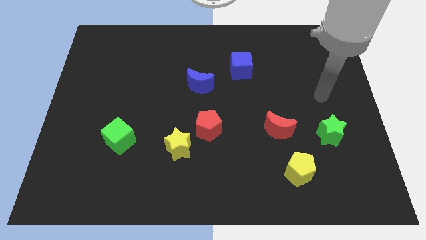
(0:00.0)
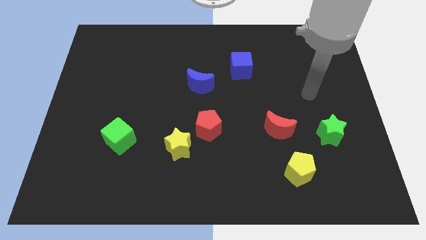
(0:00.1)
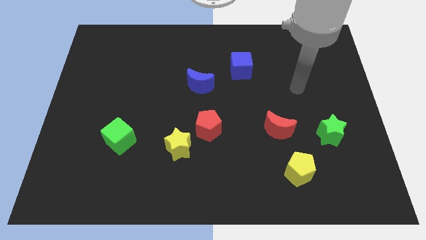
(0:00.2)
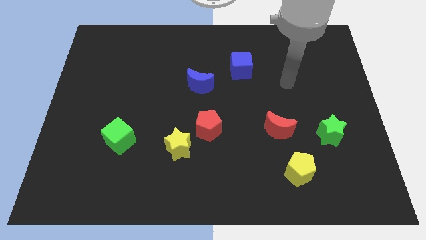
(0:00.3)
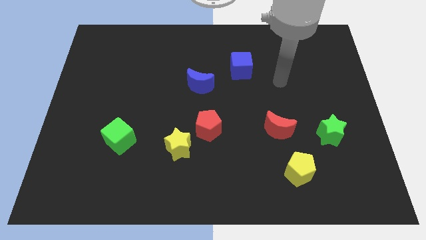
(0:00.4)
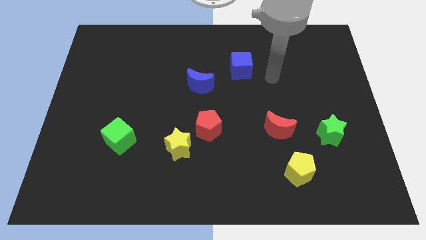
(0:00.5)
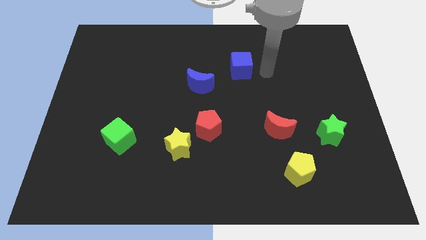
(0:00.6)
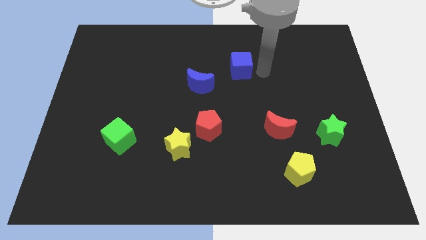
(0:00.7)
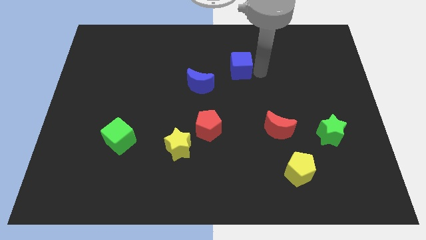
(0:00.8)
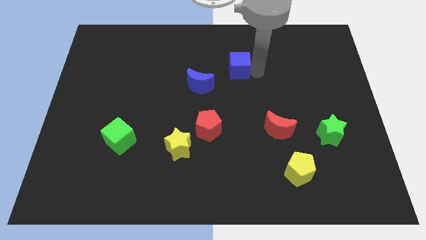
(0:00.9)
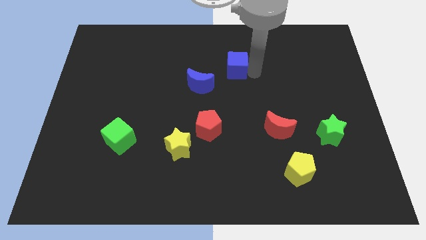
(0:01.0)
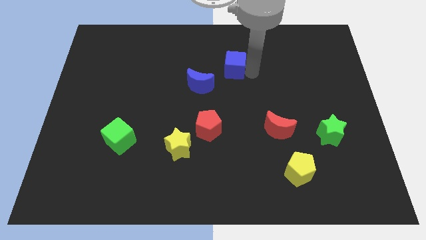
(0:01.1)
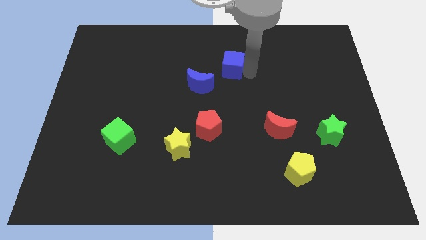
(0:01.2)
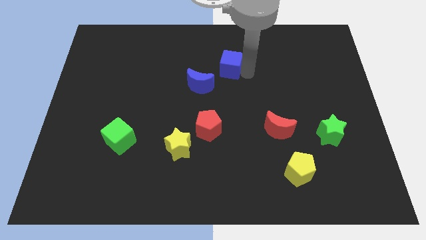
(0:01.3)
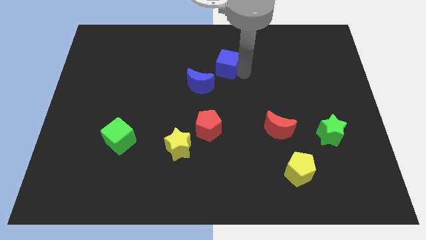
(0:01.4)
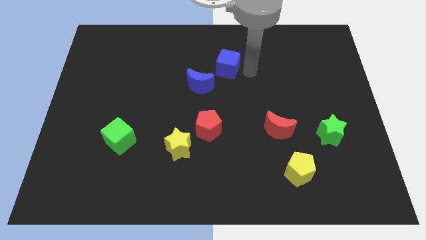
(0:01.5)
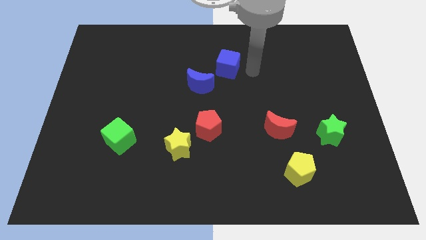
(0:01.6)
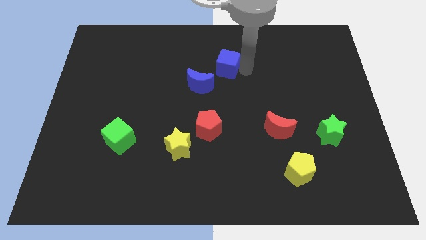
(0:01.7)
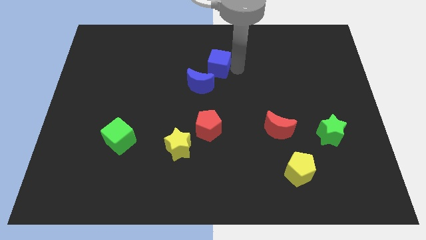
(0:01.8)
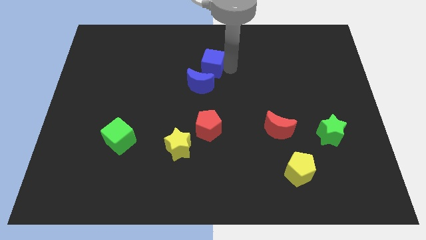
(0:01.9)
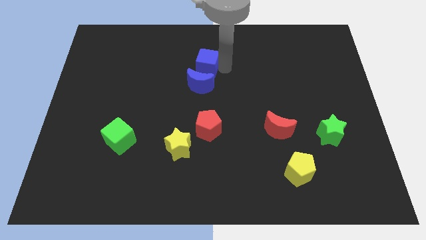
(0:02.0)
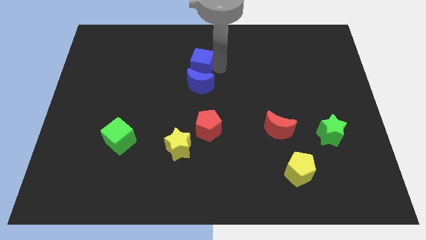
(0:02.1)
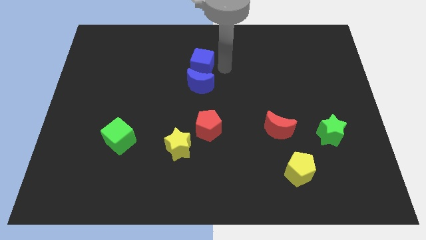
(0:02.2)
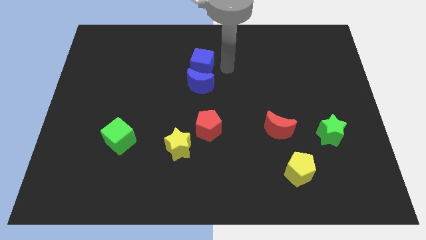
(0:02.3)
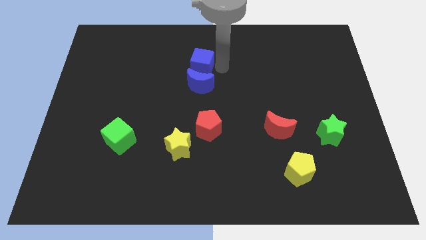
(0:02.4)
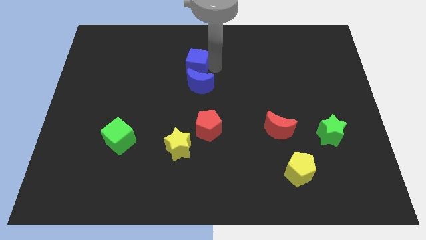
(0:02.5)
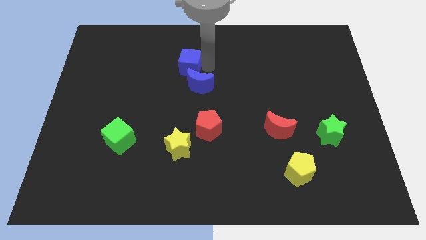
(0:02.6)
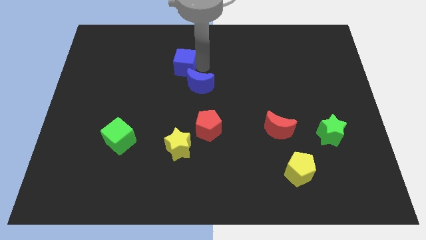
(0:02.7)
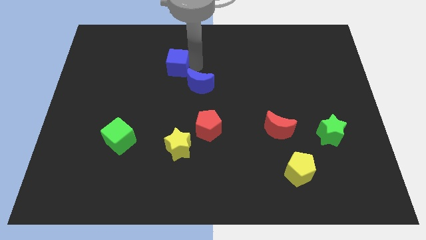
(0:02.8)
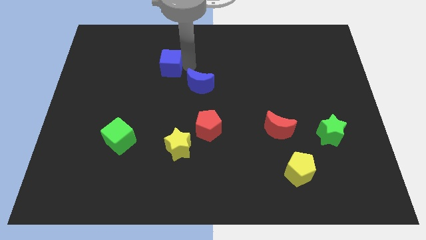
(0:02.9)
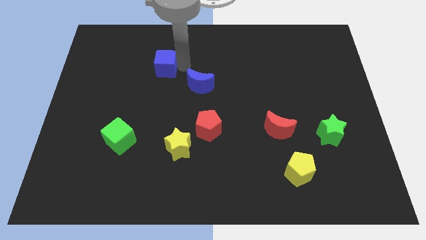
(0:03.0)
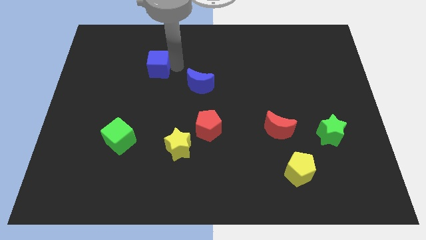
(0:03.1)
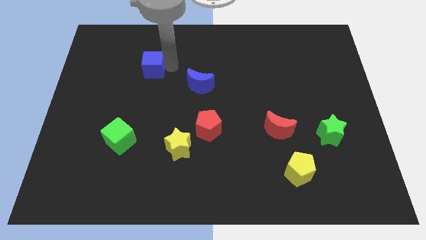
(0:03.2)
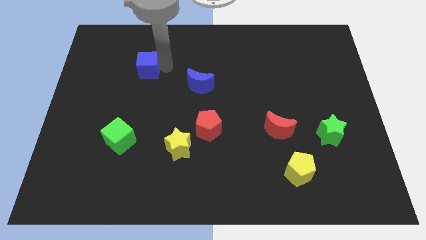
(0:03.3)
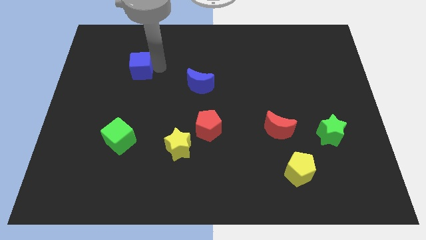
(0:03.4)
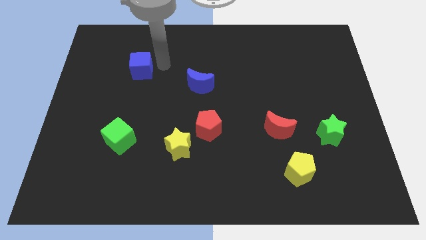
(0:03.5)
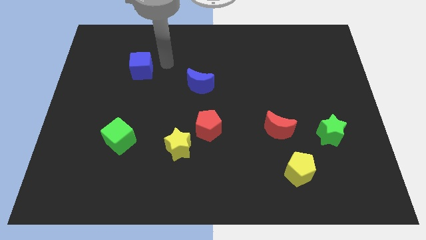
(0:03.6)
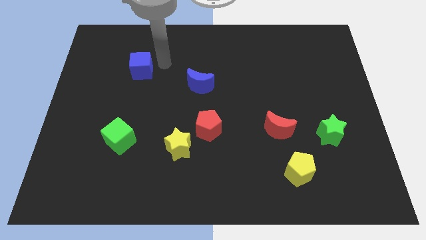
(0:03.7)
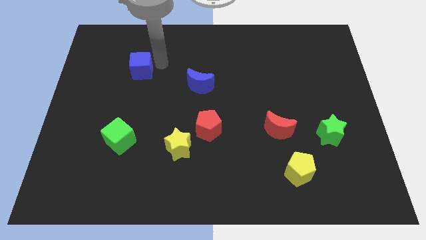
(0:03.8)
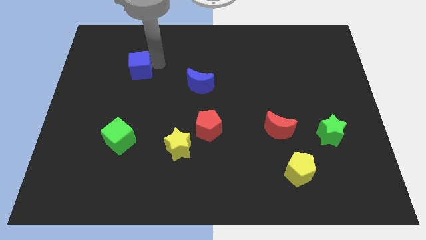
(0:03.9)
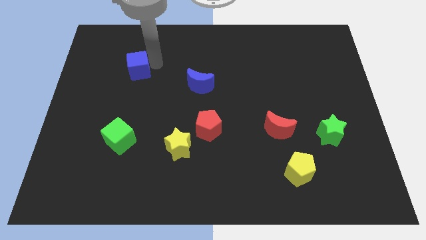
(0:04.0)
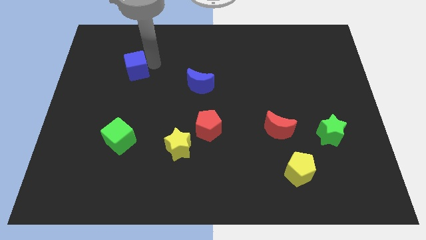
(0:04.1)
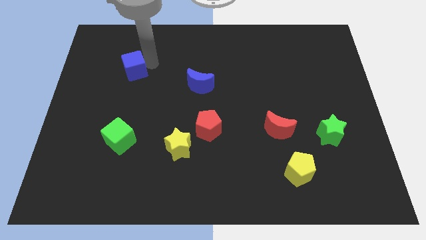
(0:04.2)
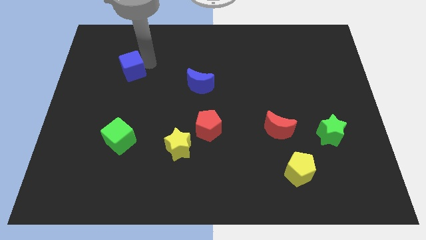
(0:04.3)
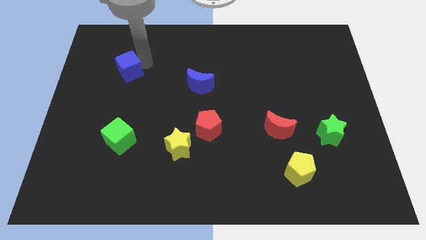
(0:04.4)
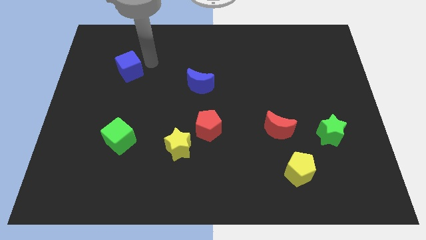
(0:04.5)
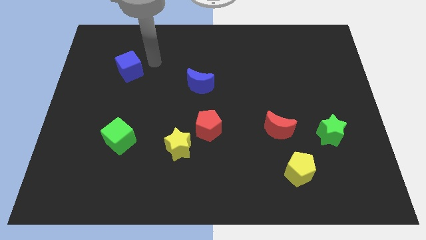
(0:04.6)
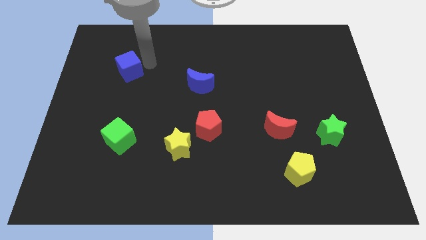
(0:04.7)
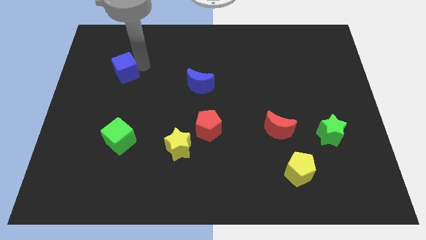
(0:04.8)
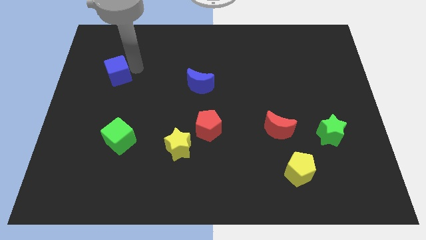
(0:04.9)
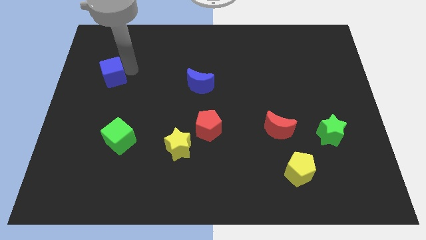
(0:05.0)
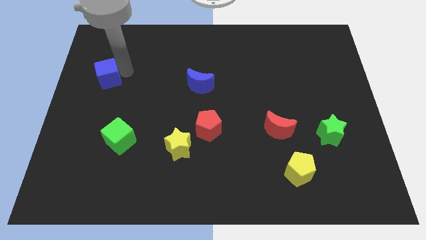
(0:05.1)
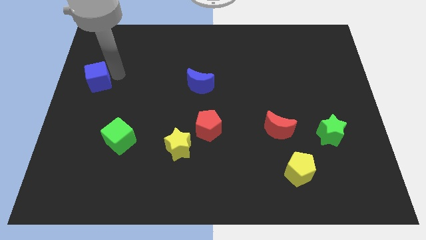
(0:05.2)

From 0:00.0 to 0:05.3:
put the blue cube to the left side of the board

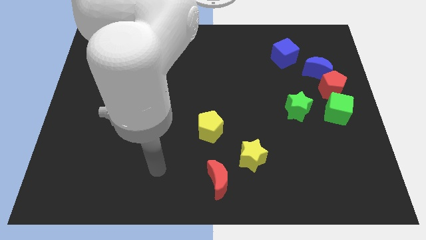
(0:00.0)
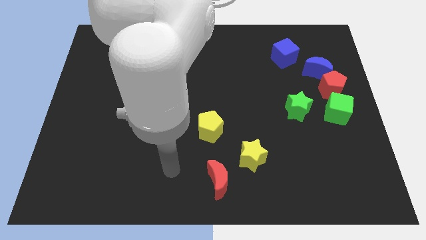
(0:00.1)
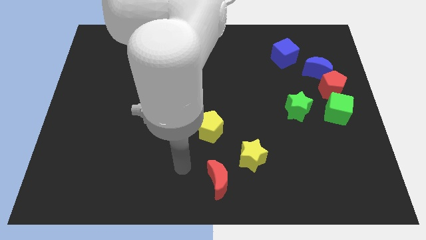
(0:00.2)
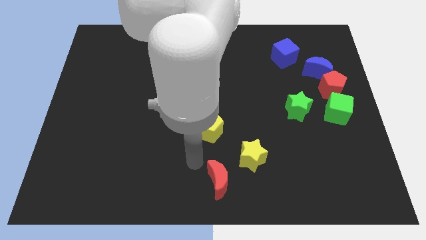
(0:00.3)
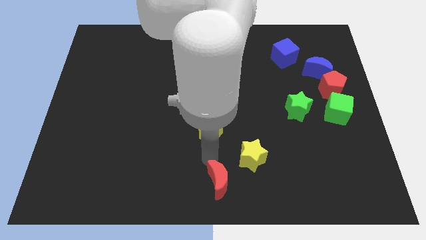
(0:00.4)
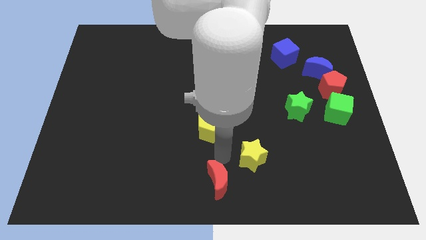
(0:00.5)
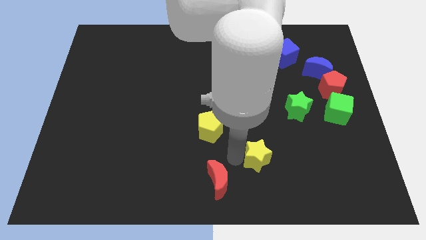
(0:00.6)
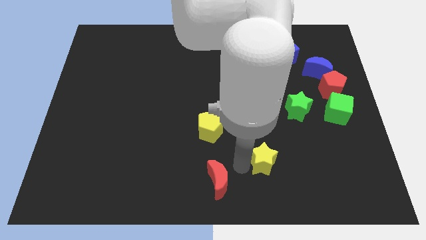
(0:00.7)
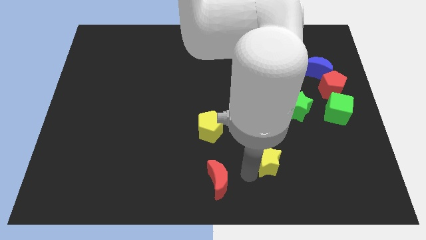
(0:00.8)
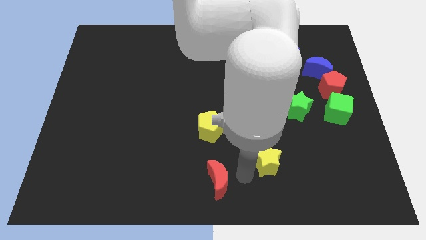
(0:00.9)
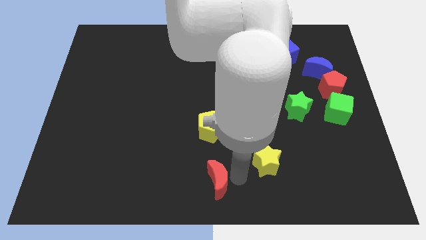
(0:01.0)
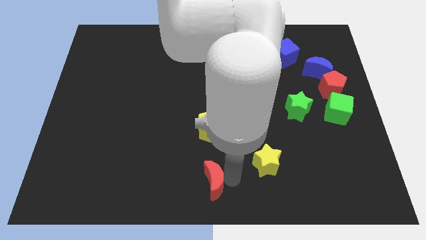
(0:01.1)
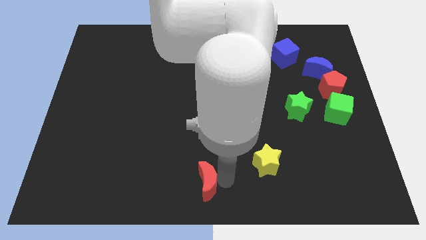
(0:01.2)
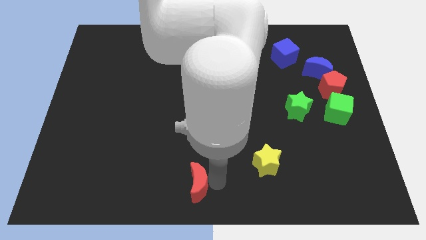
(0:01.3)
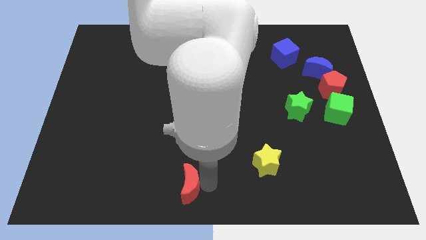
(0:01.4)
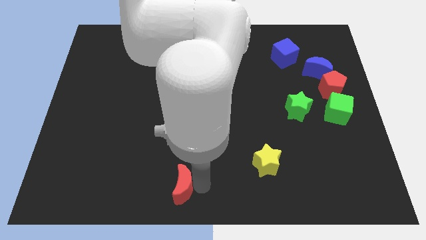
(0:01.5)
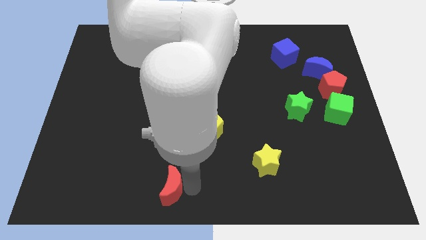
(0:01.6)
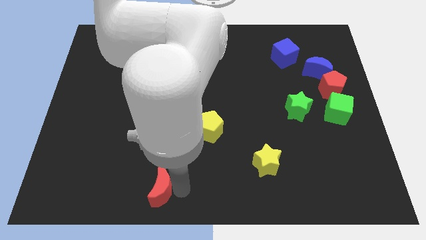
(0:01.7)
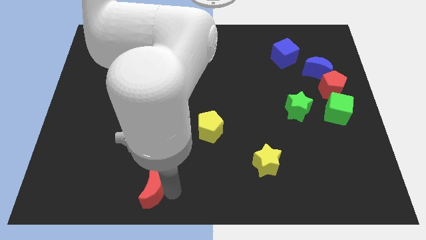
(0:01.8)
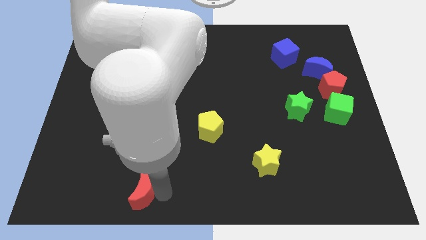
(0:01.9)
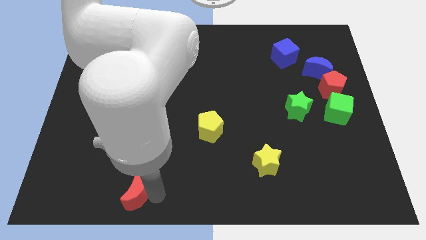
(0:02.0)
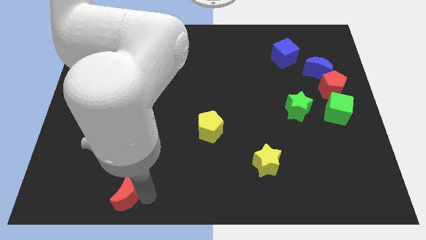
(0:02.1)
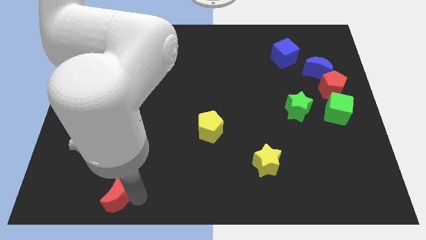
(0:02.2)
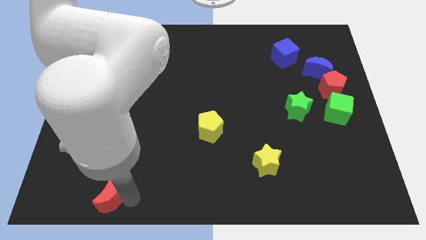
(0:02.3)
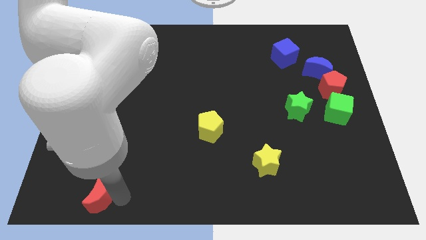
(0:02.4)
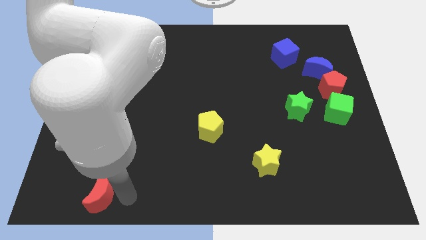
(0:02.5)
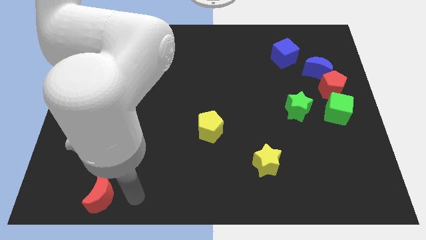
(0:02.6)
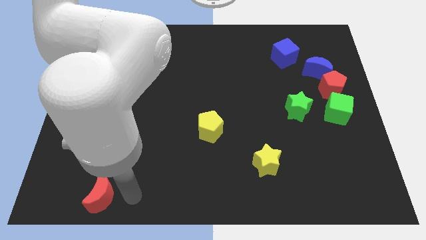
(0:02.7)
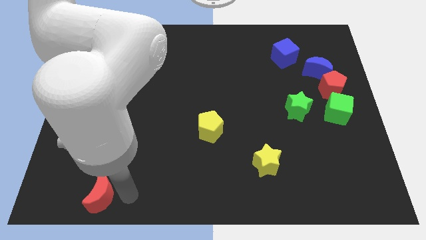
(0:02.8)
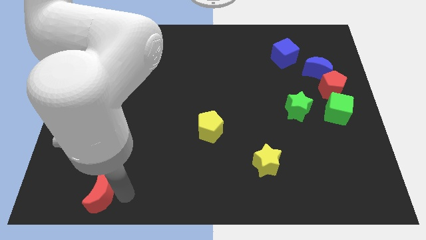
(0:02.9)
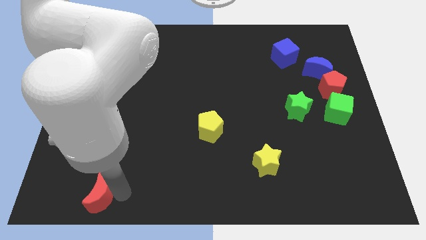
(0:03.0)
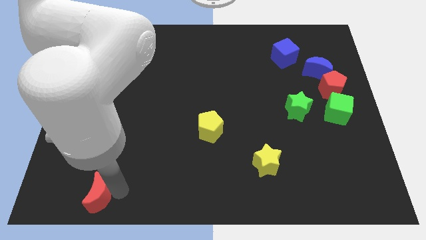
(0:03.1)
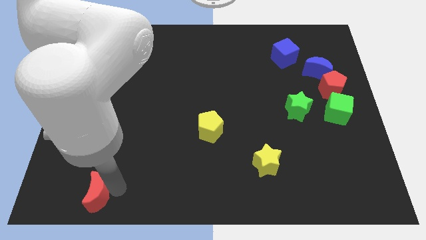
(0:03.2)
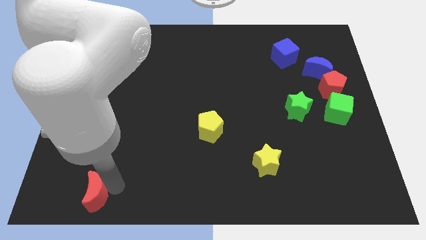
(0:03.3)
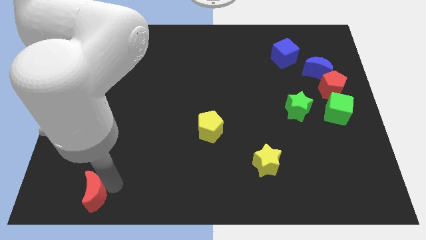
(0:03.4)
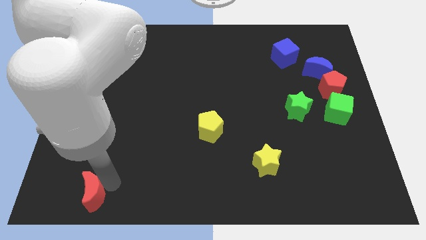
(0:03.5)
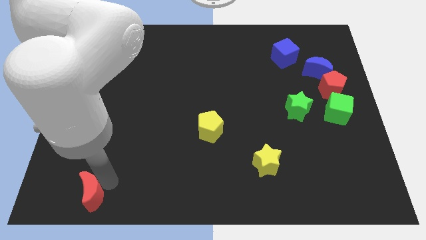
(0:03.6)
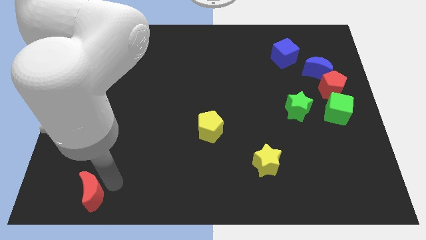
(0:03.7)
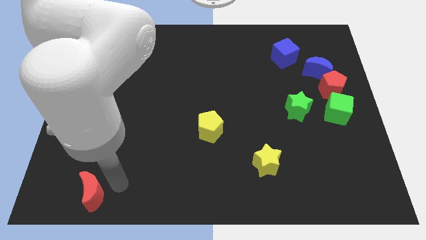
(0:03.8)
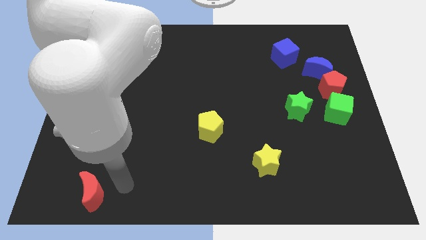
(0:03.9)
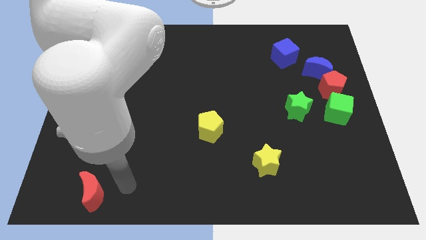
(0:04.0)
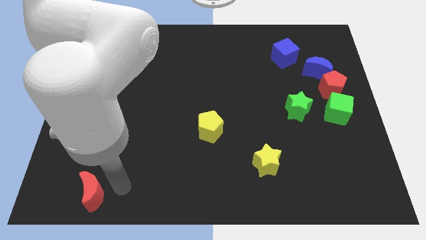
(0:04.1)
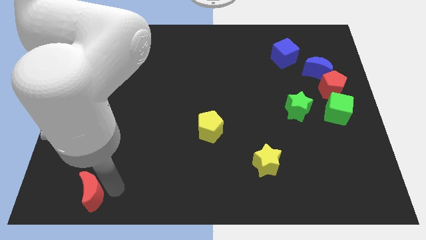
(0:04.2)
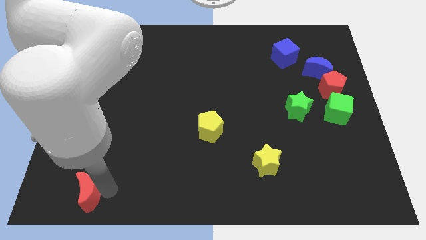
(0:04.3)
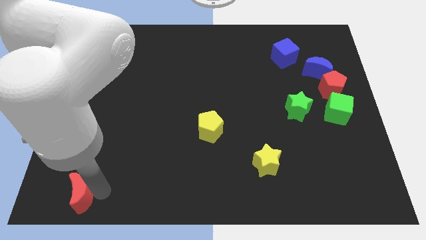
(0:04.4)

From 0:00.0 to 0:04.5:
slide the red moon to the bottom left
